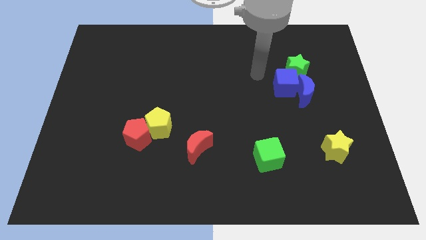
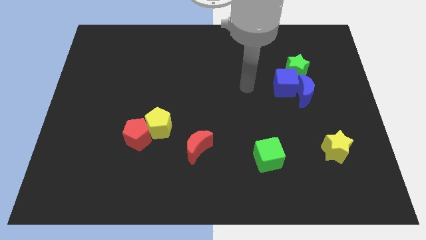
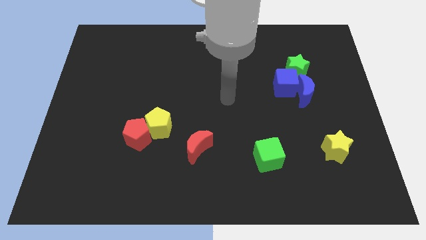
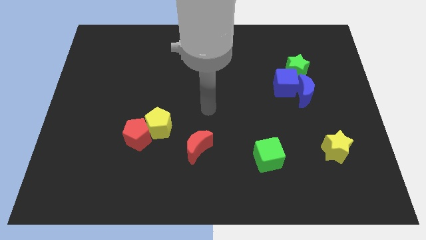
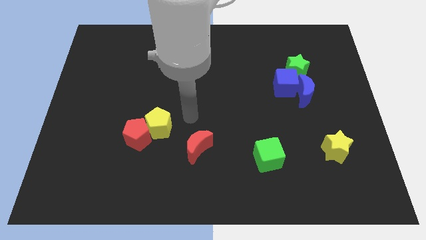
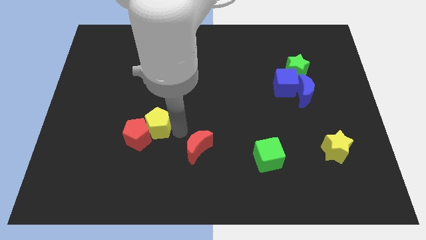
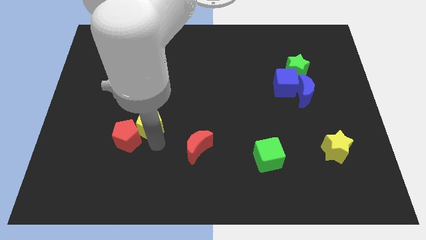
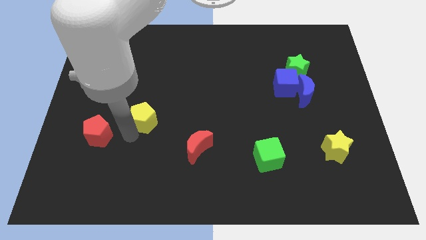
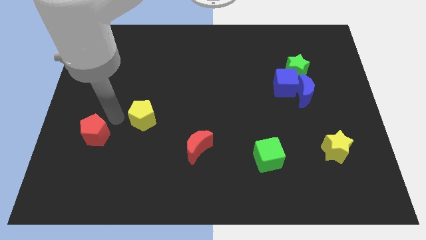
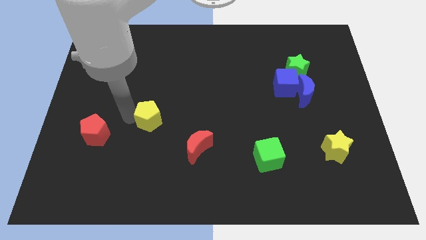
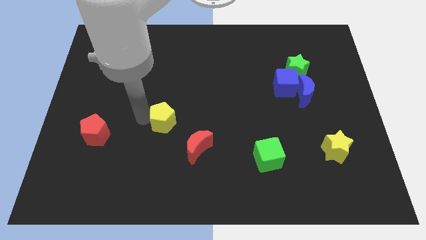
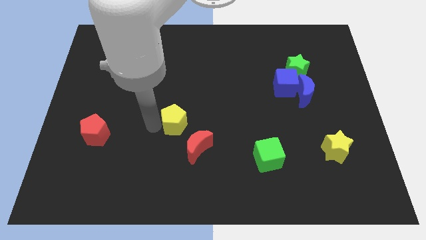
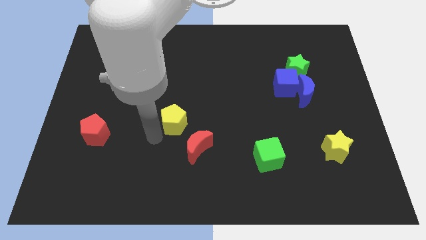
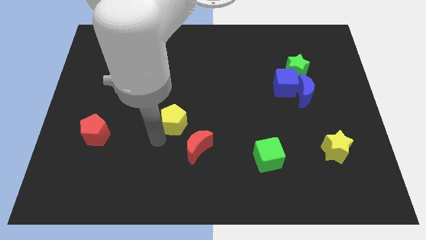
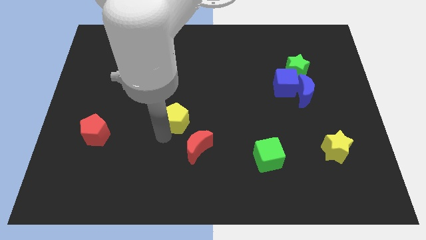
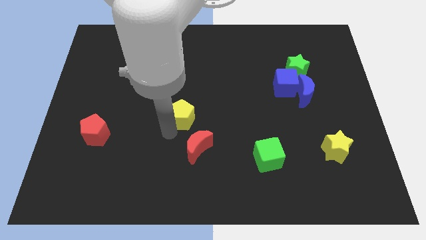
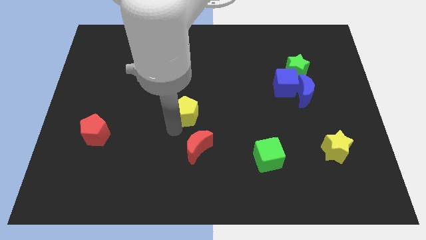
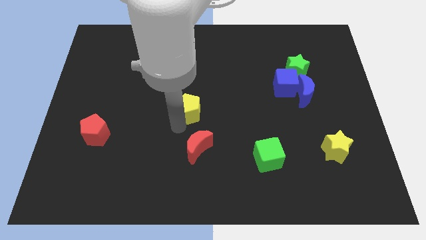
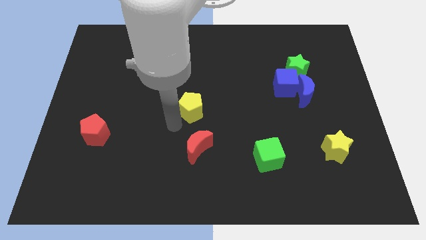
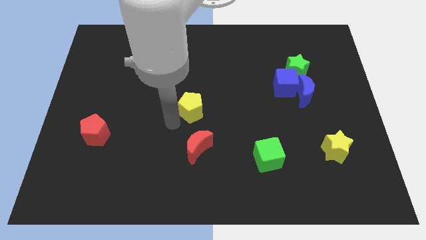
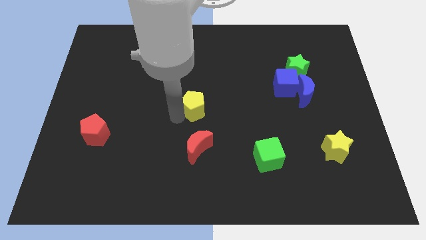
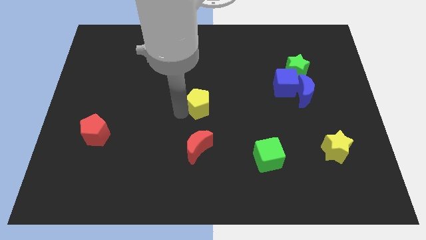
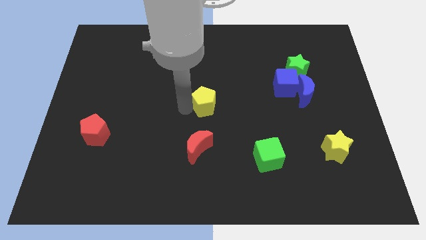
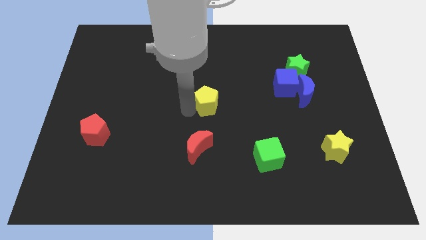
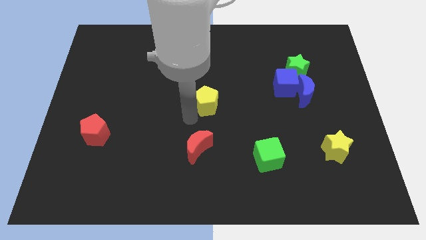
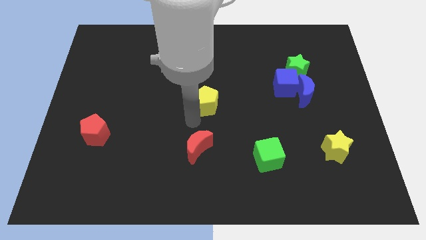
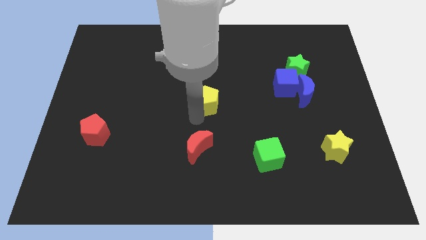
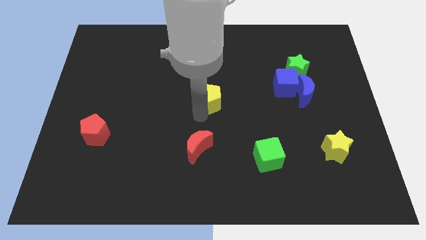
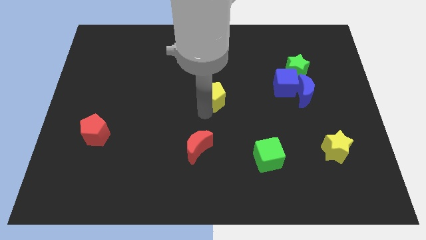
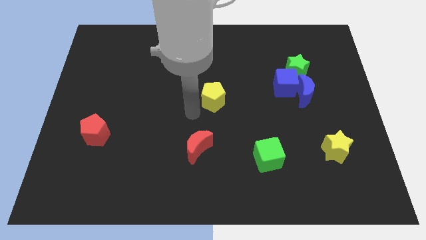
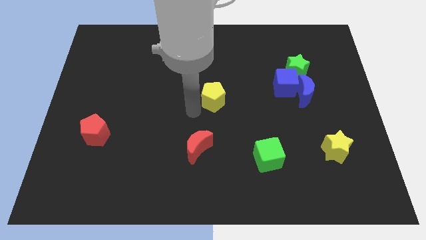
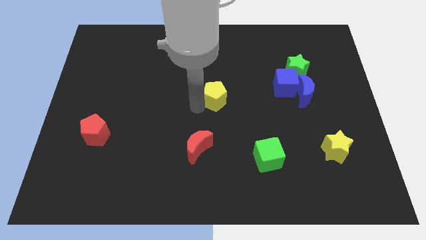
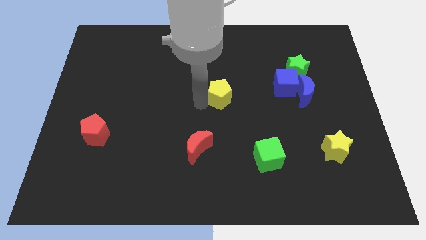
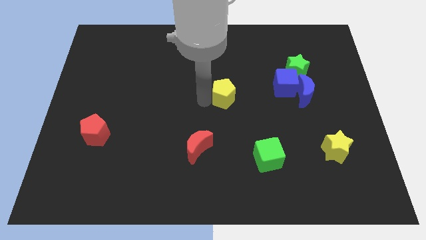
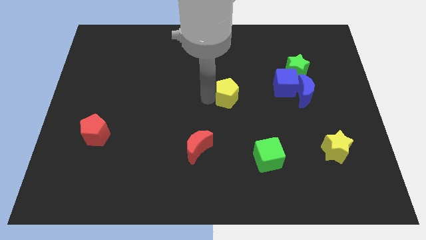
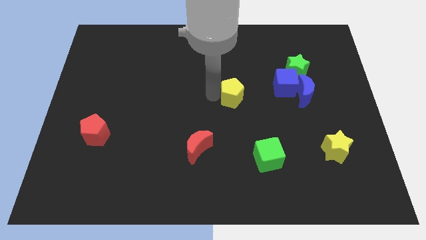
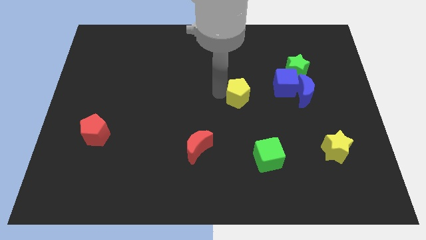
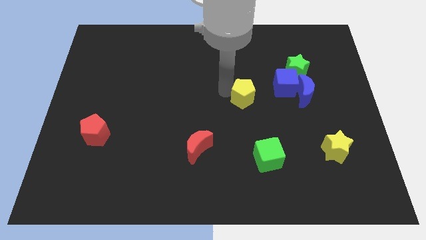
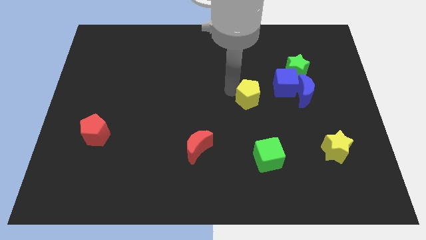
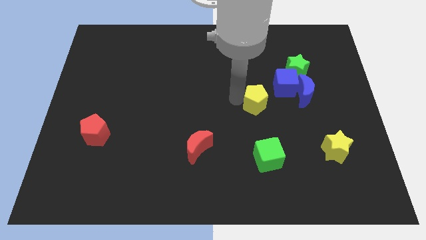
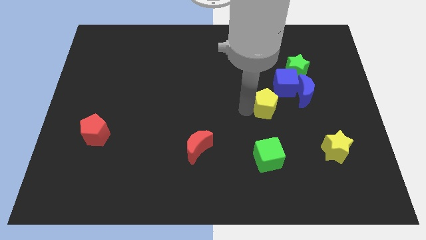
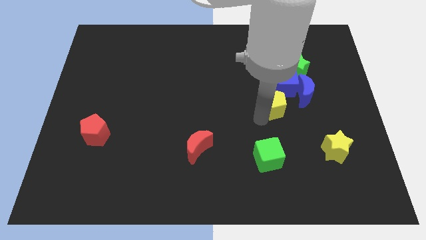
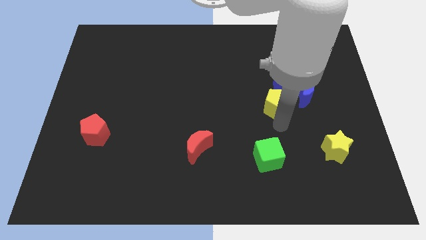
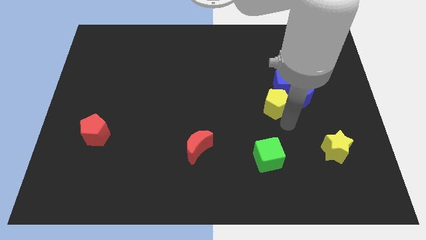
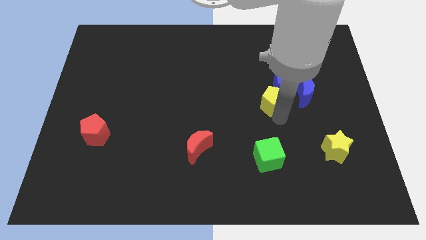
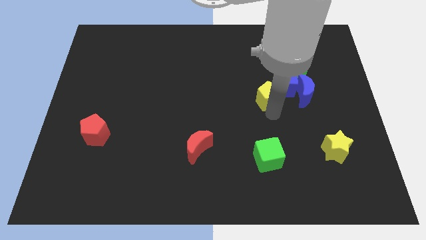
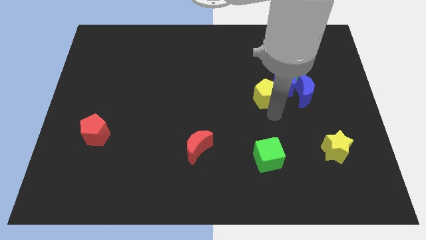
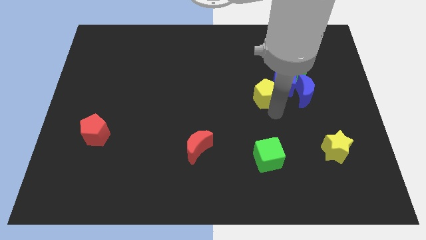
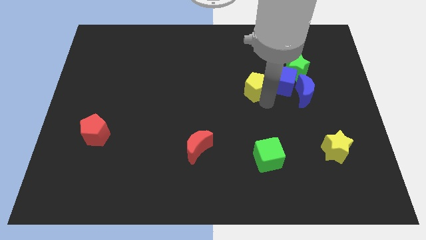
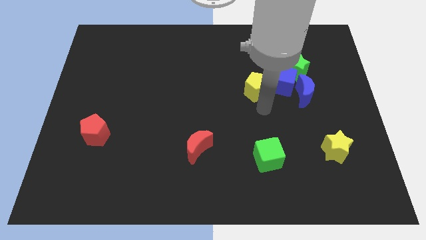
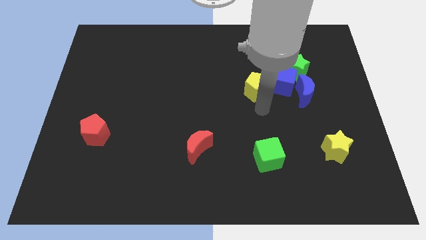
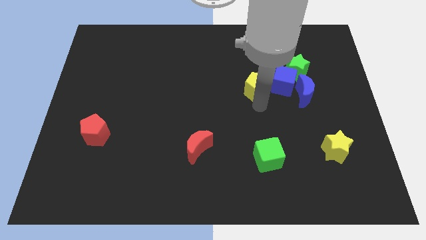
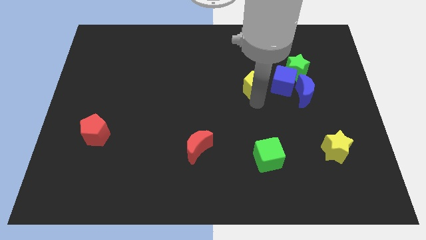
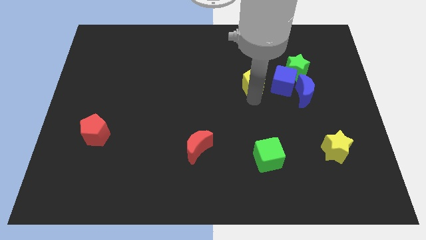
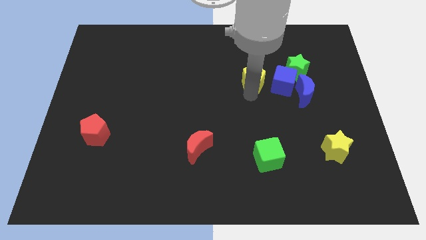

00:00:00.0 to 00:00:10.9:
put the yellow pentagon to the top left of the blue cube

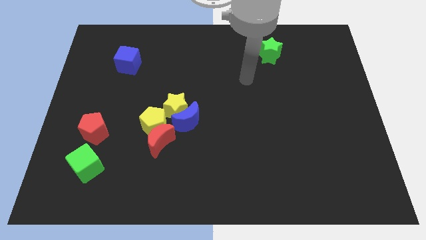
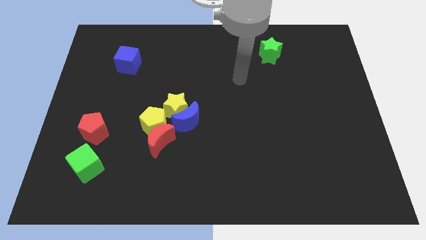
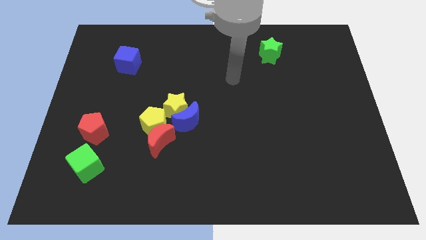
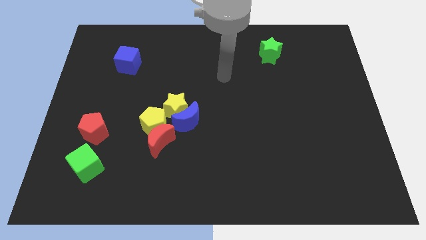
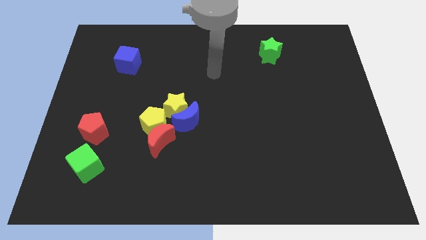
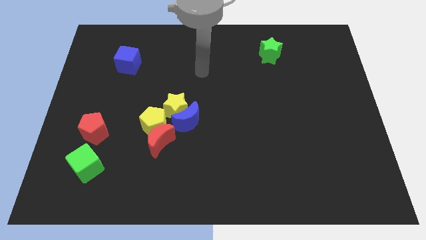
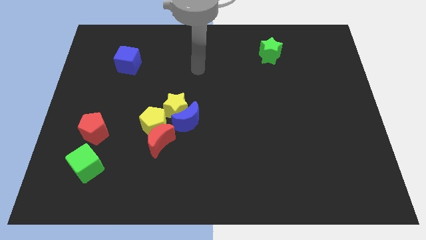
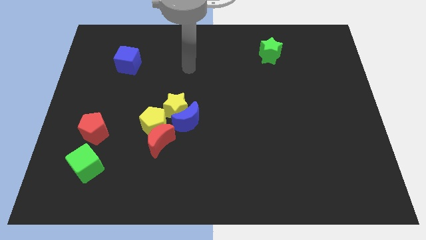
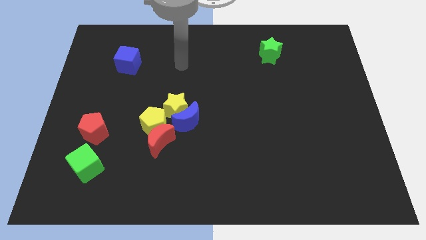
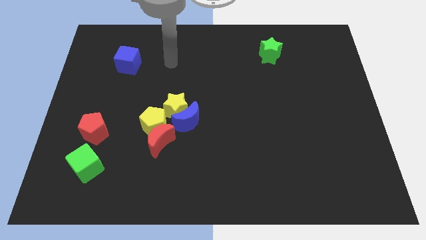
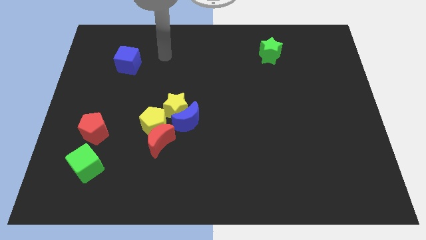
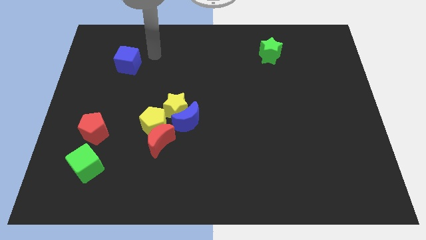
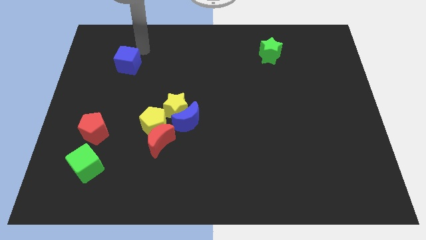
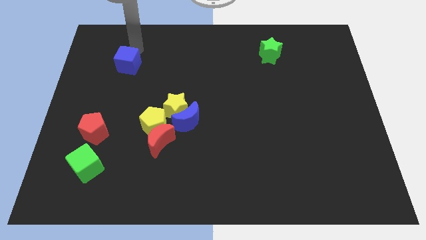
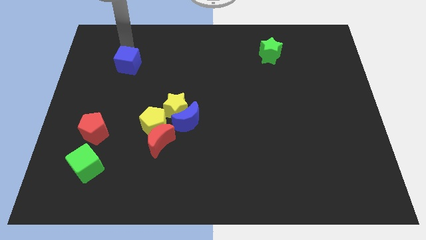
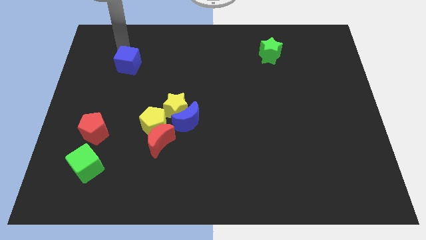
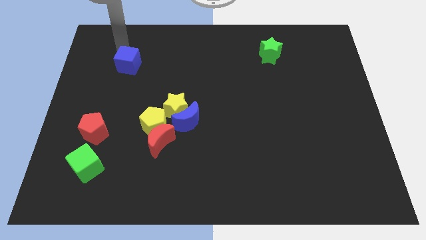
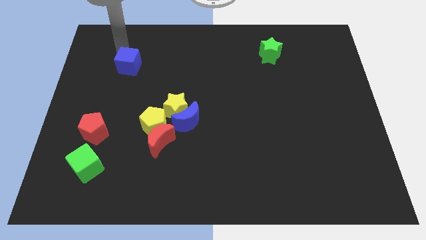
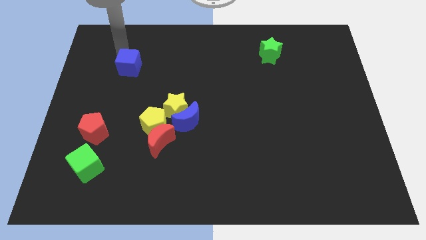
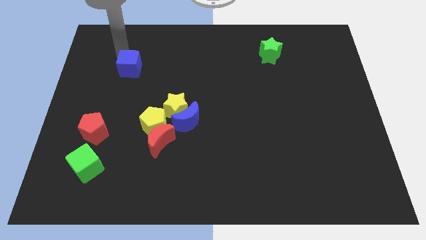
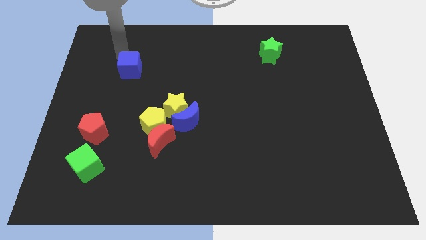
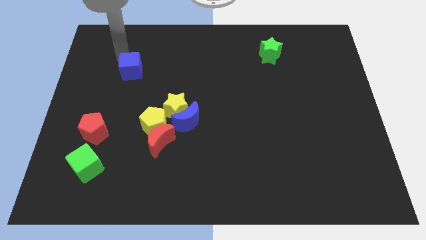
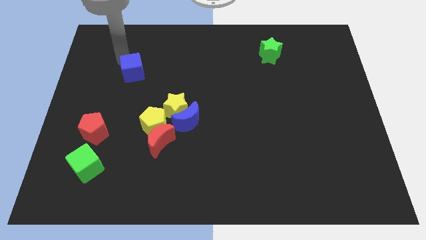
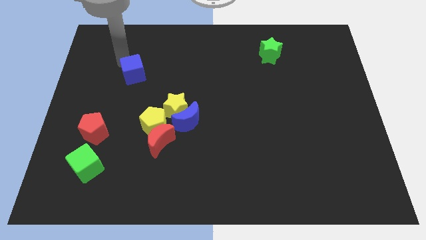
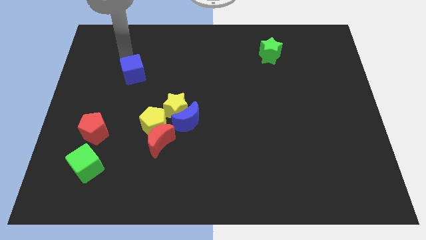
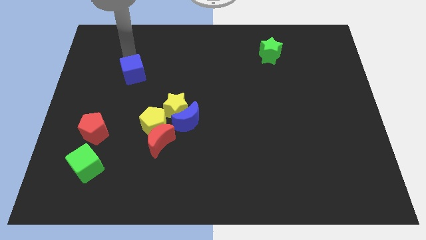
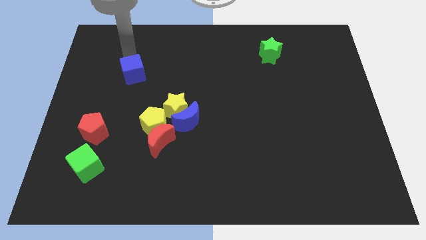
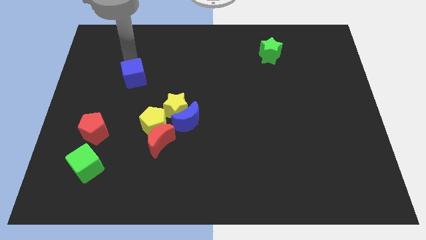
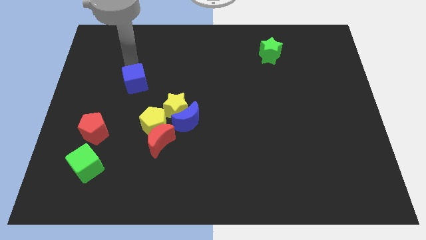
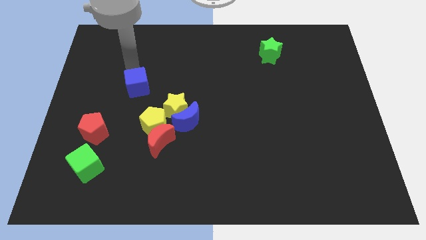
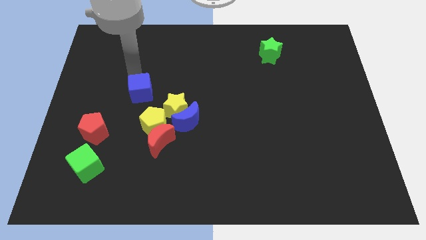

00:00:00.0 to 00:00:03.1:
put the blue cube to the top left of the yellow pentagon
